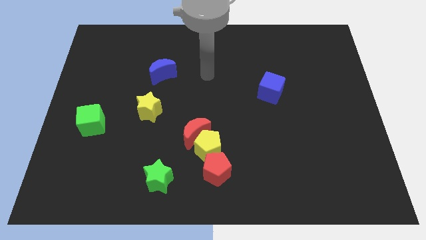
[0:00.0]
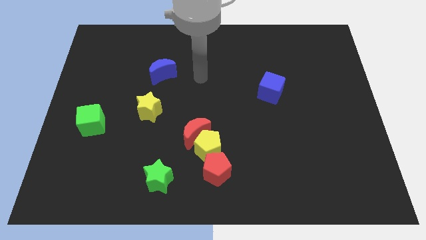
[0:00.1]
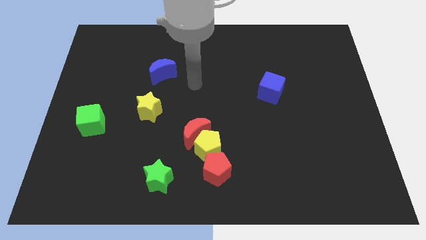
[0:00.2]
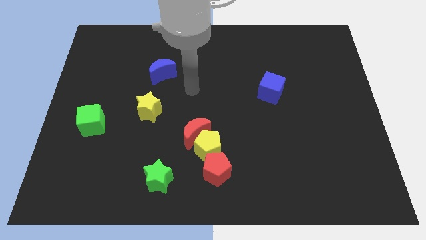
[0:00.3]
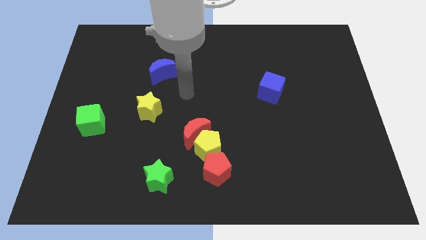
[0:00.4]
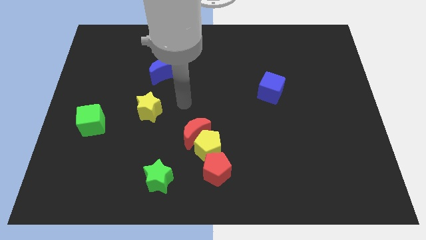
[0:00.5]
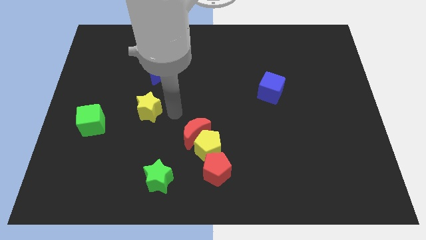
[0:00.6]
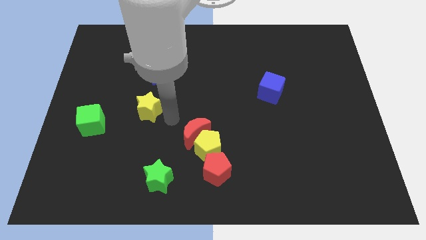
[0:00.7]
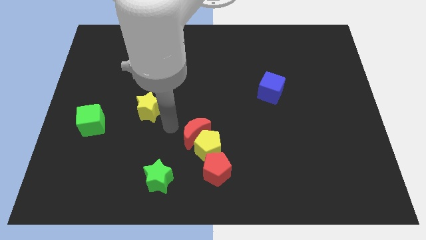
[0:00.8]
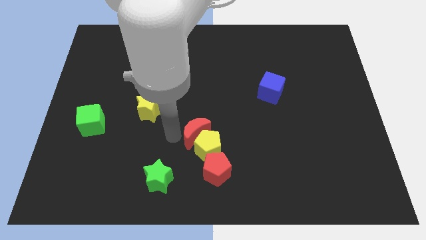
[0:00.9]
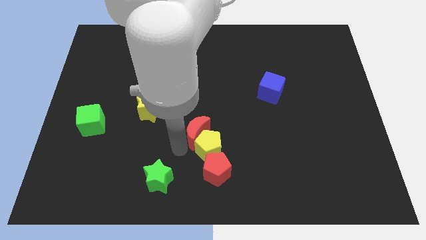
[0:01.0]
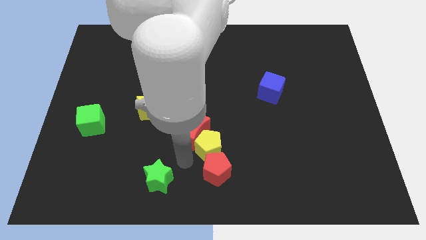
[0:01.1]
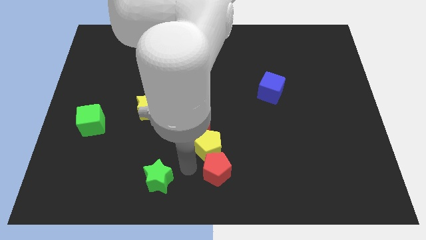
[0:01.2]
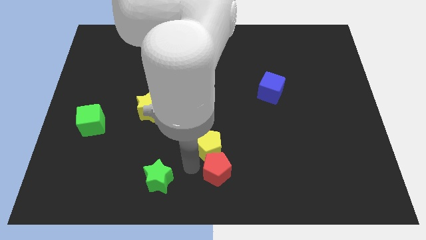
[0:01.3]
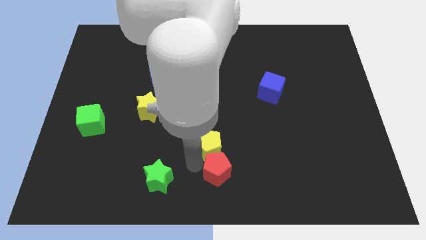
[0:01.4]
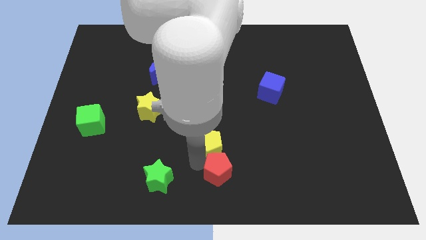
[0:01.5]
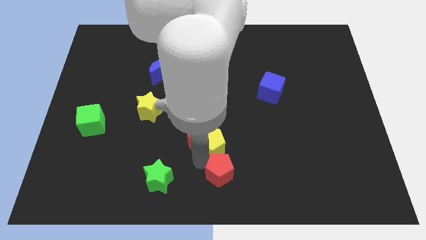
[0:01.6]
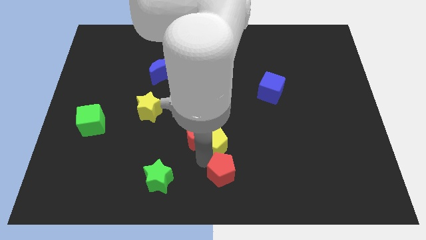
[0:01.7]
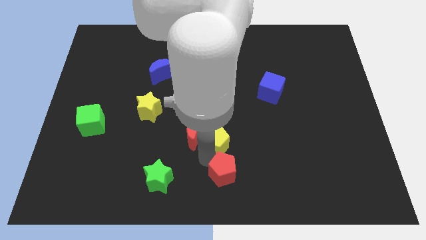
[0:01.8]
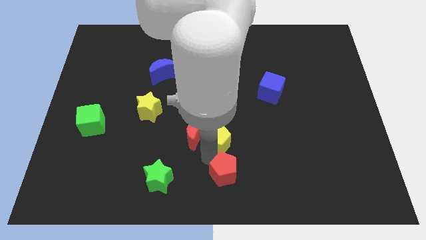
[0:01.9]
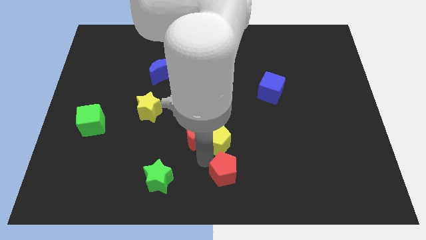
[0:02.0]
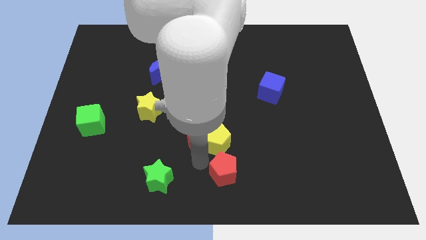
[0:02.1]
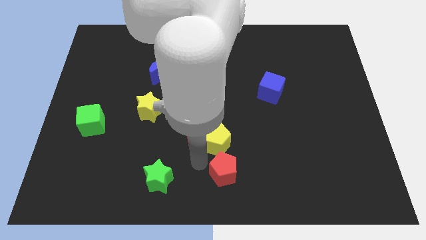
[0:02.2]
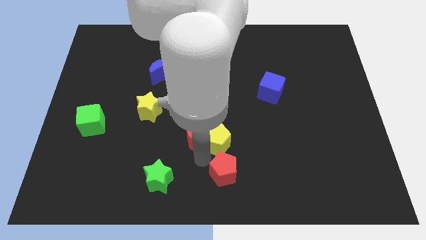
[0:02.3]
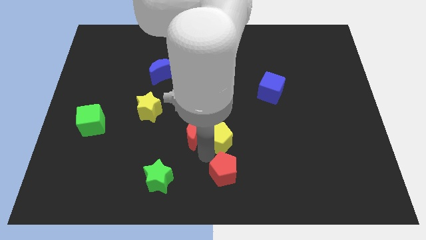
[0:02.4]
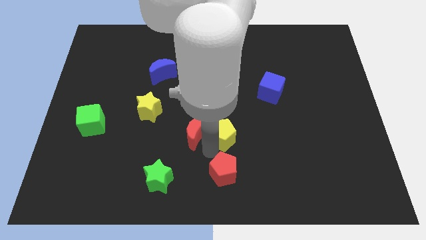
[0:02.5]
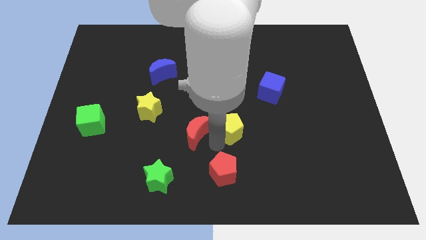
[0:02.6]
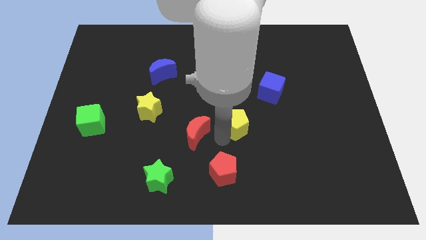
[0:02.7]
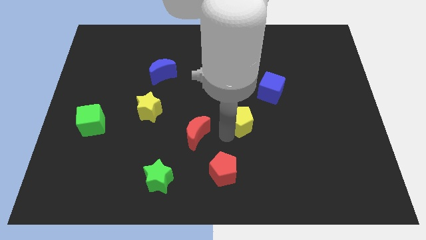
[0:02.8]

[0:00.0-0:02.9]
separate the yellow pentagon from the red moon and red pentagon

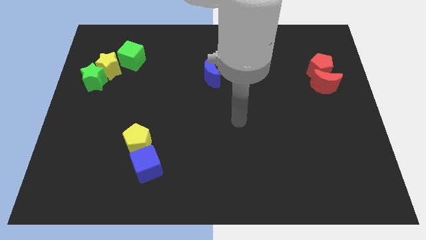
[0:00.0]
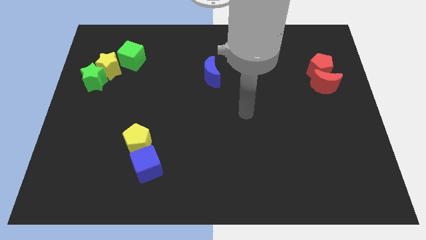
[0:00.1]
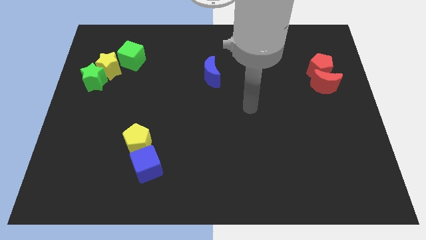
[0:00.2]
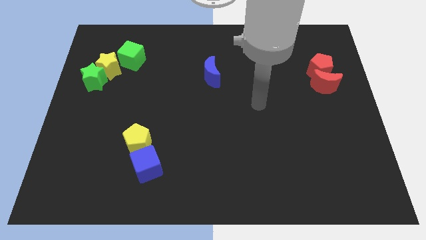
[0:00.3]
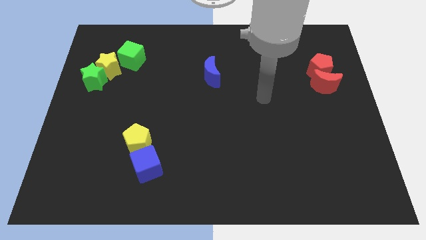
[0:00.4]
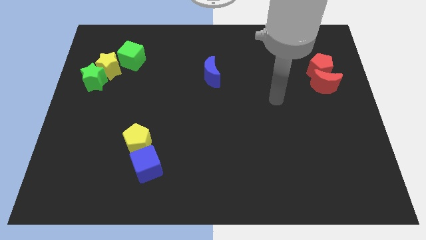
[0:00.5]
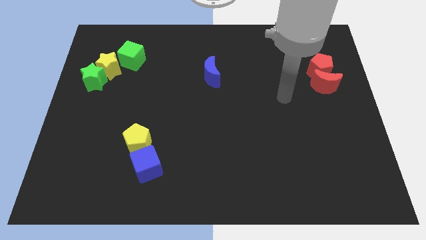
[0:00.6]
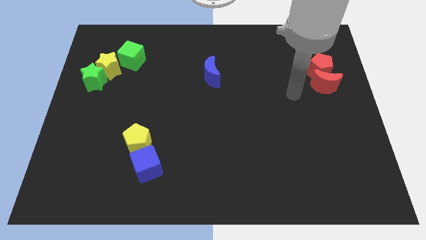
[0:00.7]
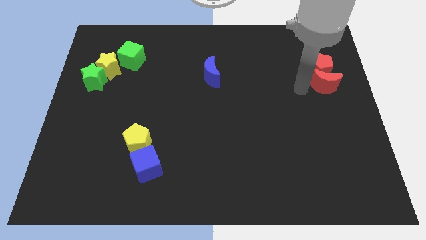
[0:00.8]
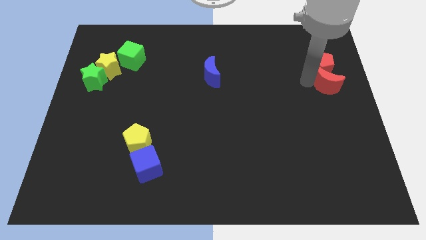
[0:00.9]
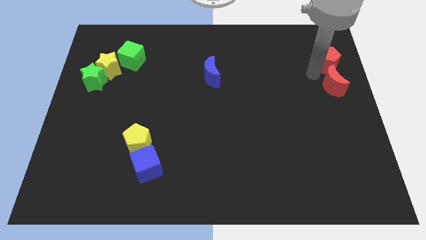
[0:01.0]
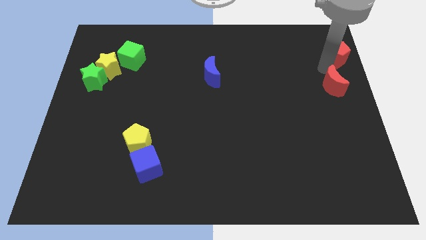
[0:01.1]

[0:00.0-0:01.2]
move the red moon away from the red pentagon

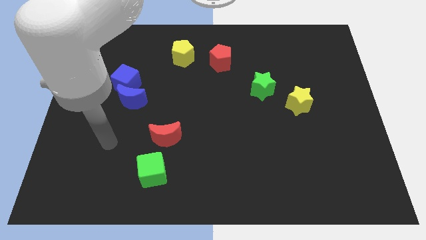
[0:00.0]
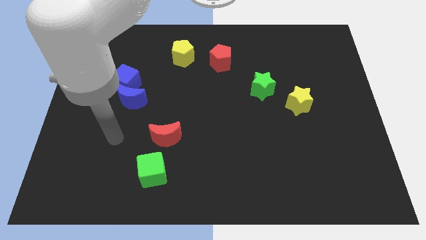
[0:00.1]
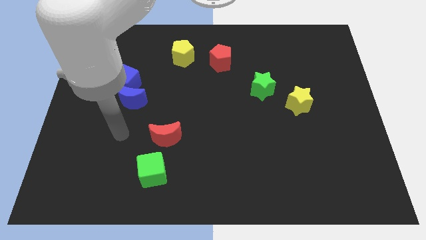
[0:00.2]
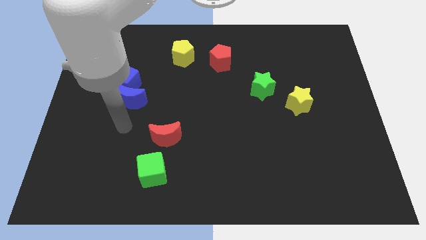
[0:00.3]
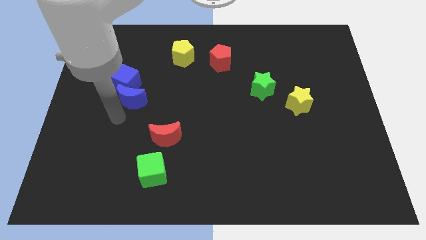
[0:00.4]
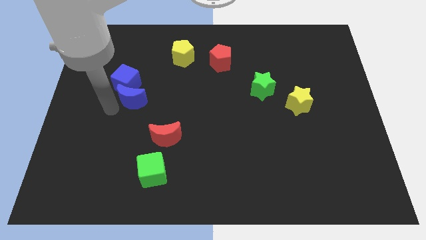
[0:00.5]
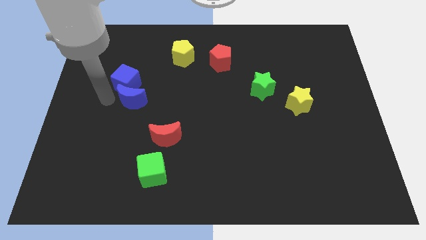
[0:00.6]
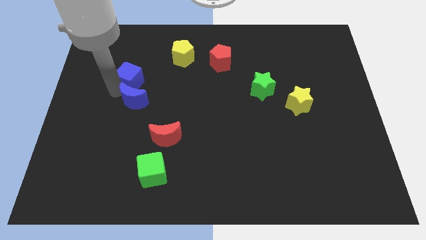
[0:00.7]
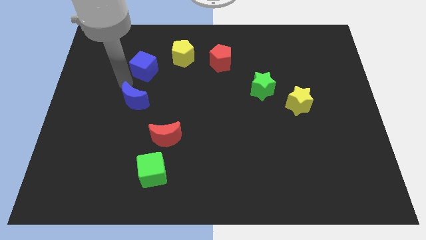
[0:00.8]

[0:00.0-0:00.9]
separate the blue moon from the blue cube

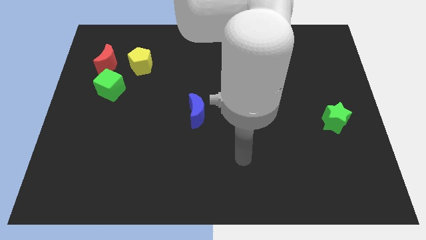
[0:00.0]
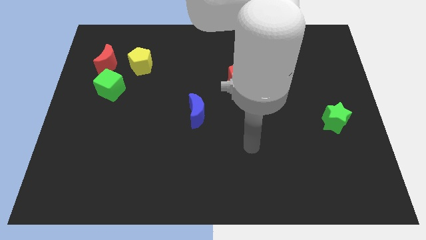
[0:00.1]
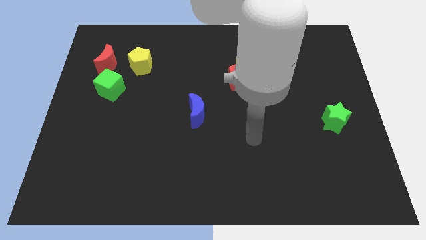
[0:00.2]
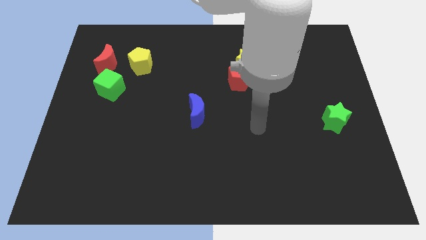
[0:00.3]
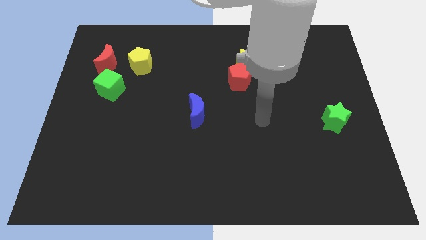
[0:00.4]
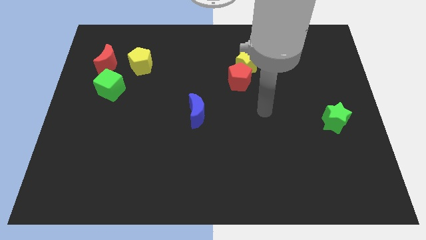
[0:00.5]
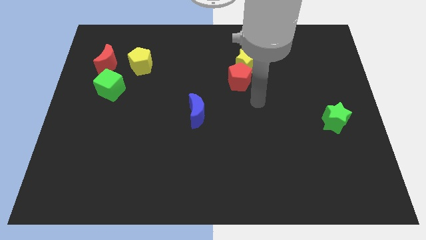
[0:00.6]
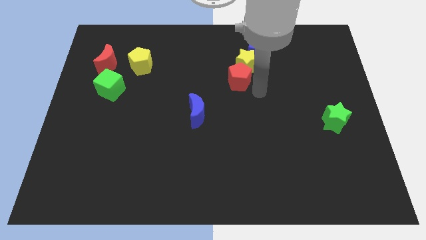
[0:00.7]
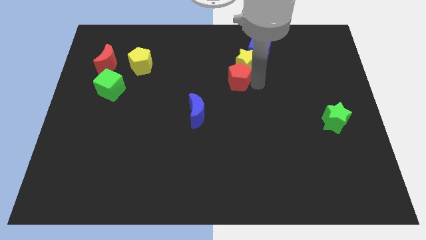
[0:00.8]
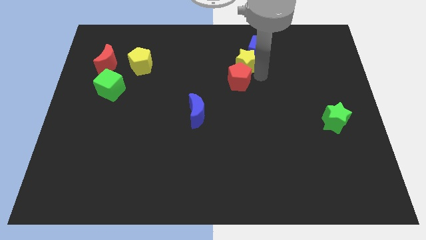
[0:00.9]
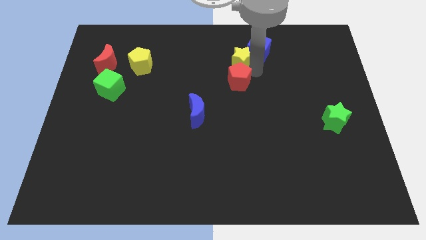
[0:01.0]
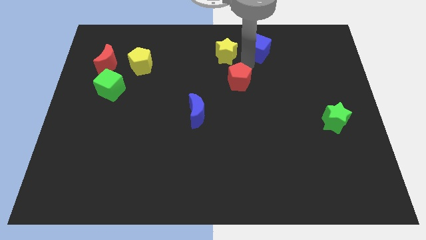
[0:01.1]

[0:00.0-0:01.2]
separate the red pentagon from the yellow star

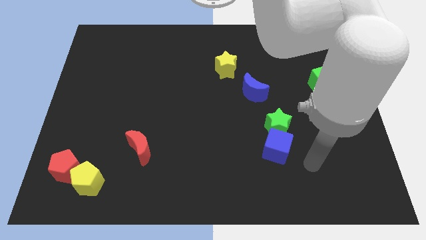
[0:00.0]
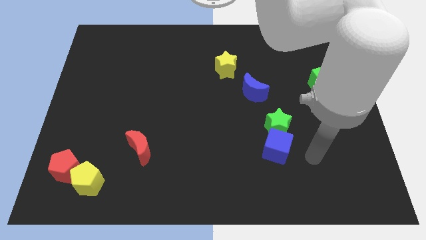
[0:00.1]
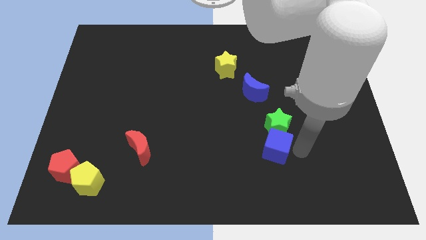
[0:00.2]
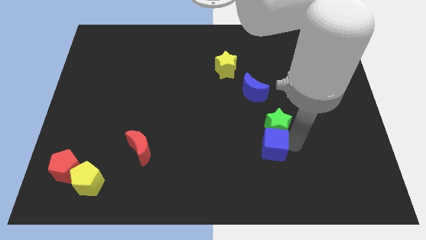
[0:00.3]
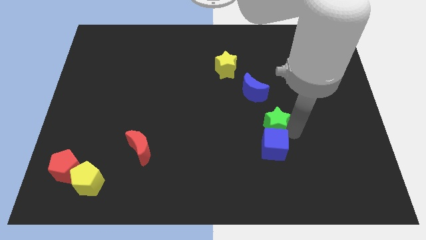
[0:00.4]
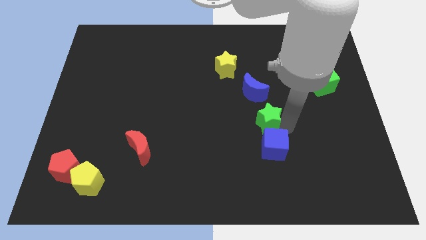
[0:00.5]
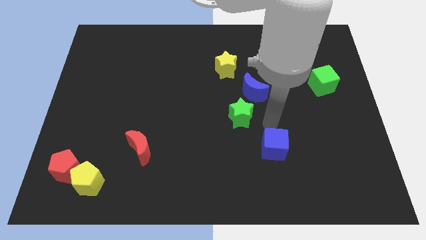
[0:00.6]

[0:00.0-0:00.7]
pull the blue cube apart from the green star

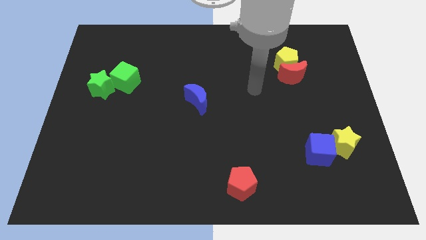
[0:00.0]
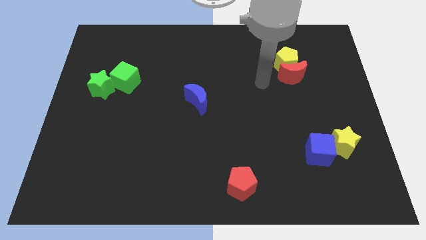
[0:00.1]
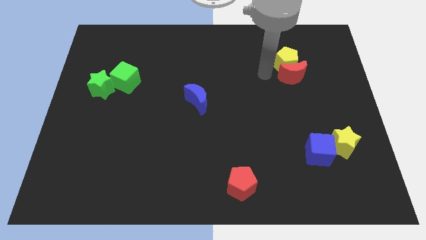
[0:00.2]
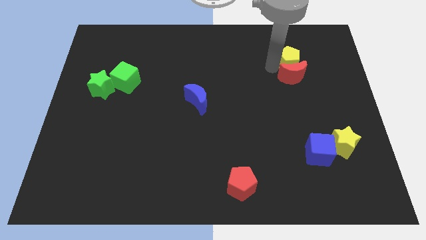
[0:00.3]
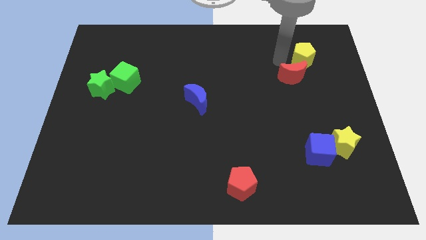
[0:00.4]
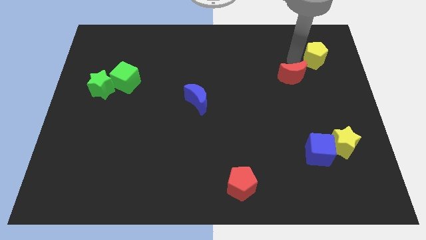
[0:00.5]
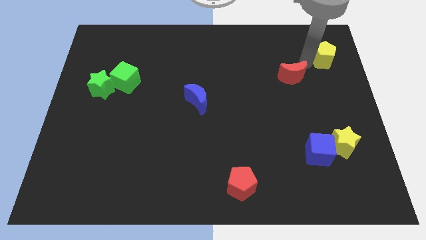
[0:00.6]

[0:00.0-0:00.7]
pull the red moon apart from the yellow pentagon

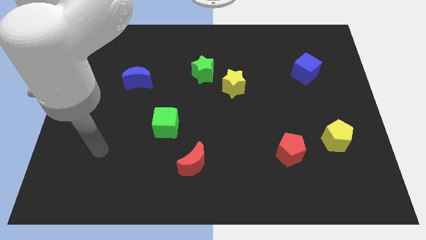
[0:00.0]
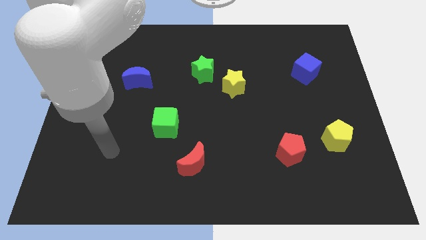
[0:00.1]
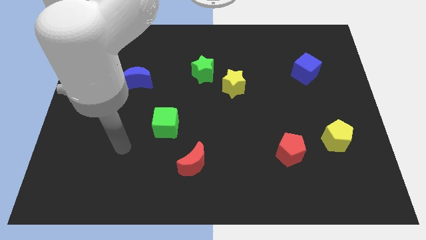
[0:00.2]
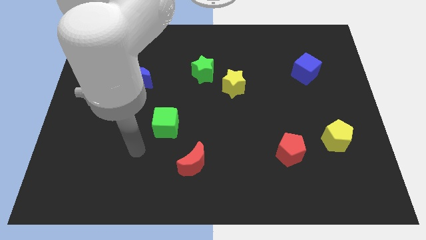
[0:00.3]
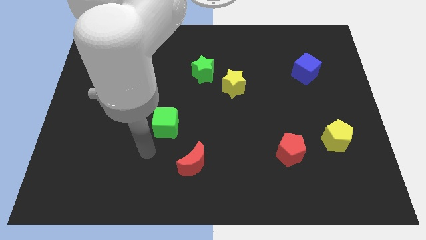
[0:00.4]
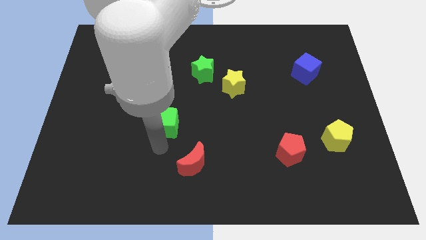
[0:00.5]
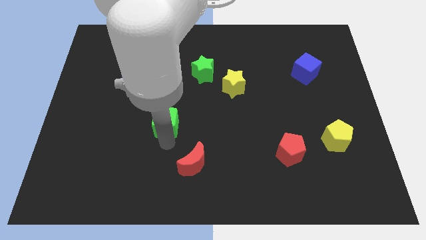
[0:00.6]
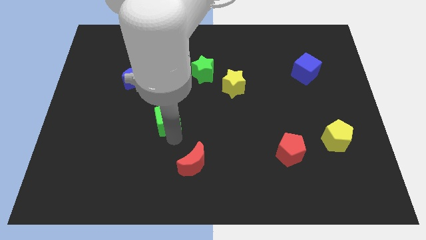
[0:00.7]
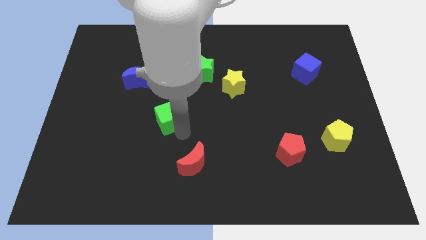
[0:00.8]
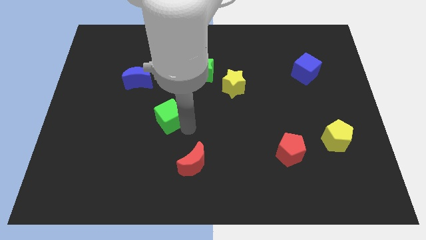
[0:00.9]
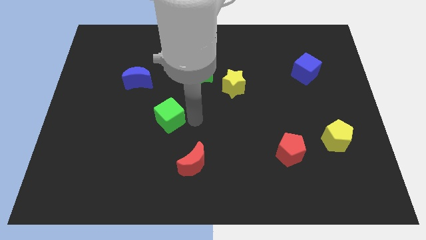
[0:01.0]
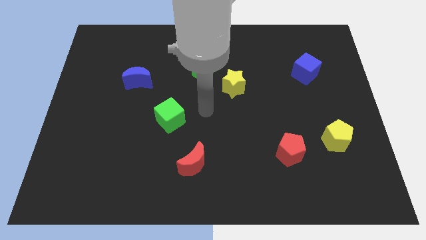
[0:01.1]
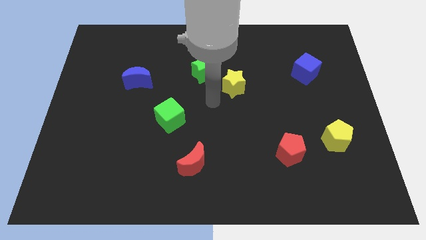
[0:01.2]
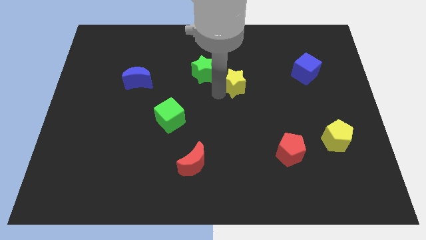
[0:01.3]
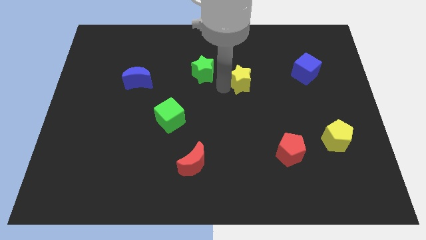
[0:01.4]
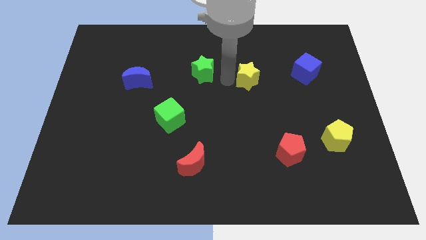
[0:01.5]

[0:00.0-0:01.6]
separate the green star from the yellow star

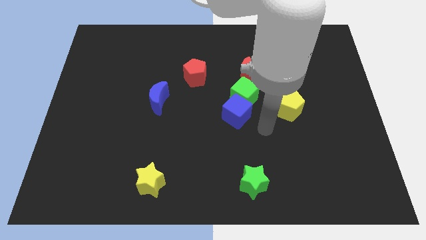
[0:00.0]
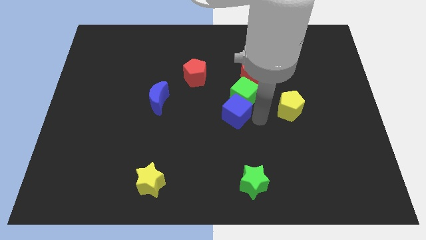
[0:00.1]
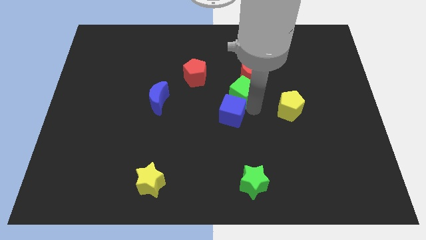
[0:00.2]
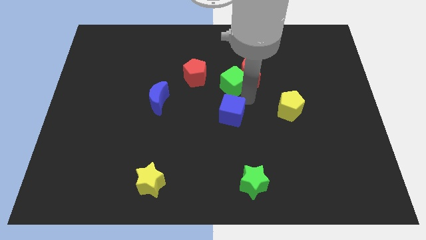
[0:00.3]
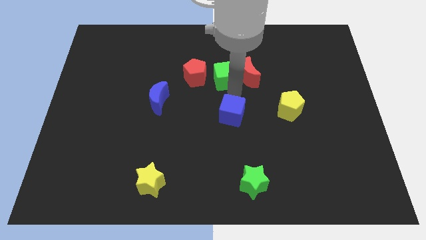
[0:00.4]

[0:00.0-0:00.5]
separate the blue cube from the green cube
